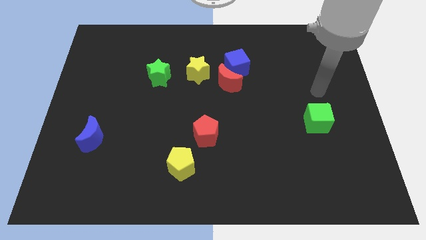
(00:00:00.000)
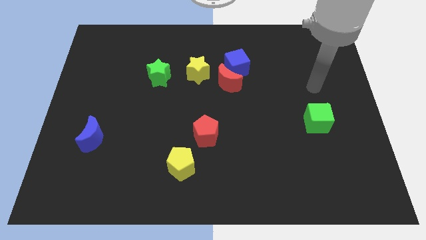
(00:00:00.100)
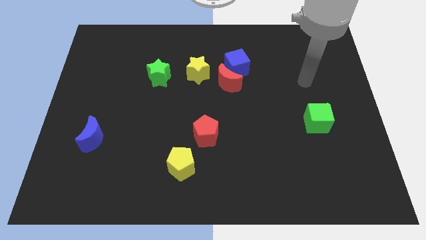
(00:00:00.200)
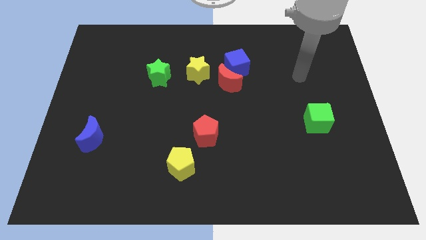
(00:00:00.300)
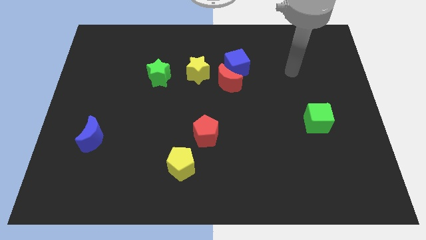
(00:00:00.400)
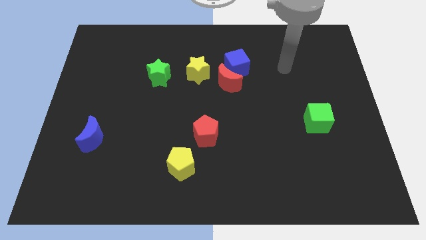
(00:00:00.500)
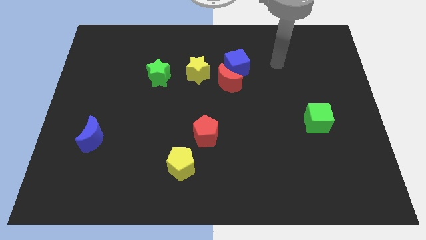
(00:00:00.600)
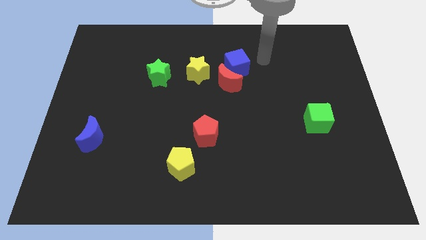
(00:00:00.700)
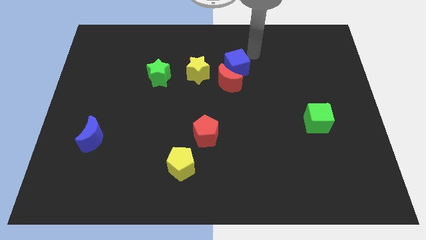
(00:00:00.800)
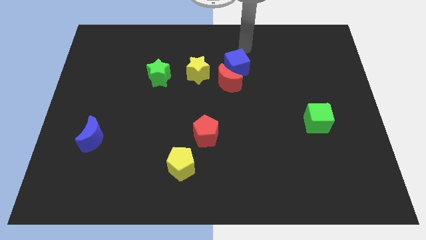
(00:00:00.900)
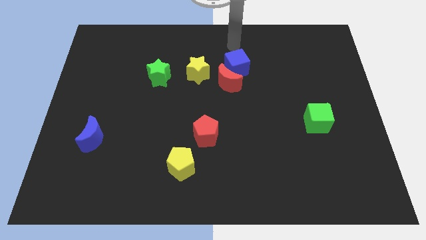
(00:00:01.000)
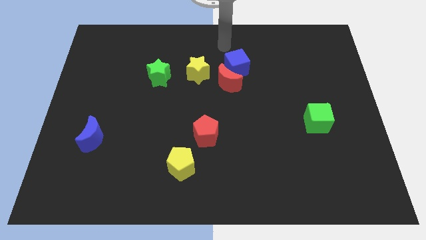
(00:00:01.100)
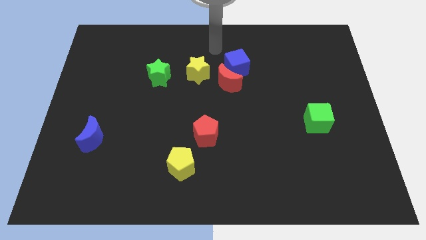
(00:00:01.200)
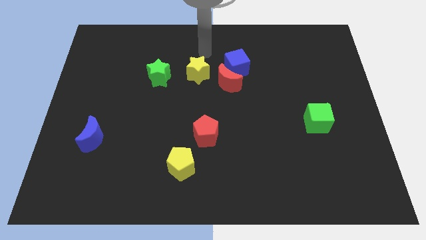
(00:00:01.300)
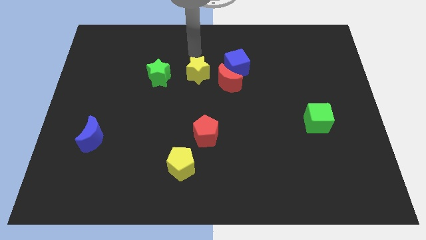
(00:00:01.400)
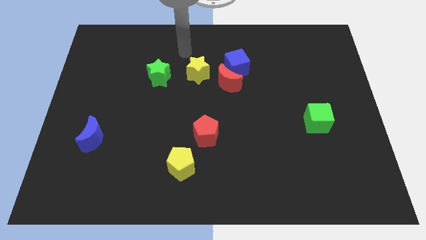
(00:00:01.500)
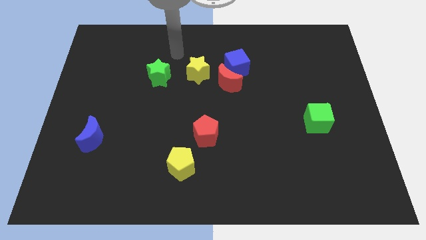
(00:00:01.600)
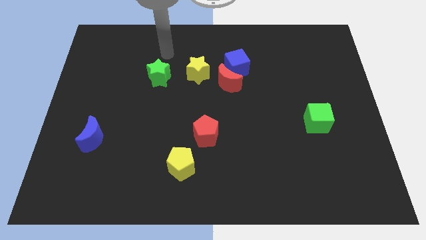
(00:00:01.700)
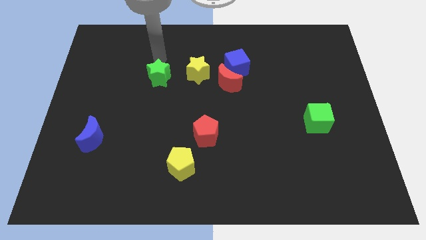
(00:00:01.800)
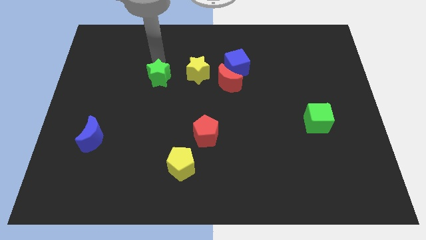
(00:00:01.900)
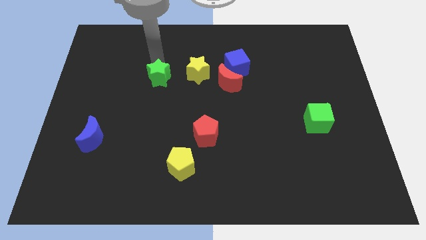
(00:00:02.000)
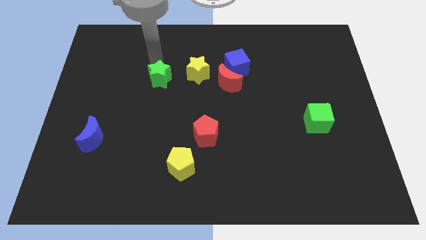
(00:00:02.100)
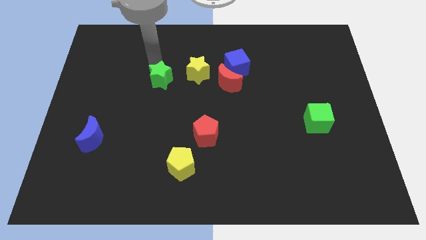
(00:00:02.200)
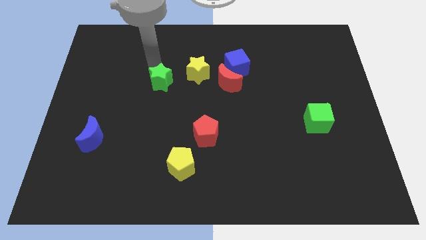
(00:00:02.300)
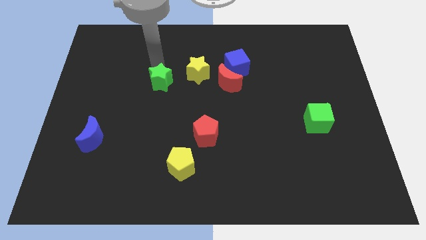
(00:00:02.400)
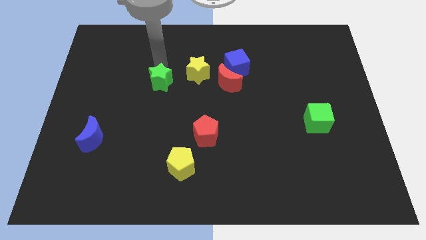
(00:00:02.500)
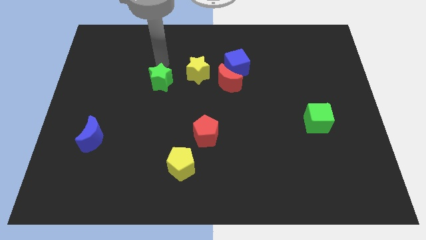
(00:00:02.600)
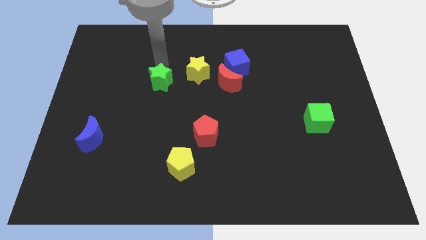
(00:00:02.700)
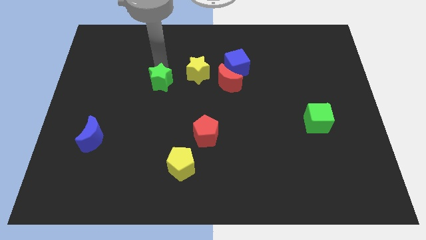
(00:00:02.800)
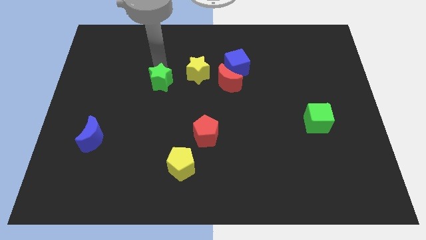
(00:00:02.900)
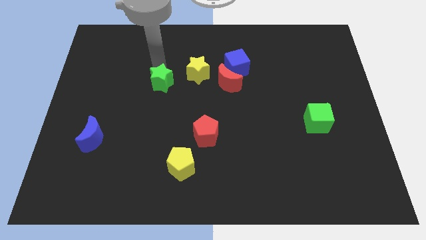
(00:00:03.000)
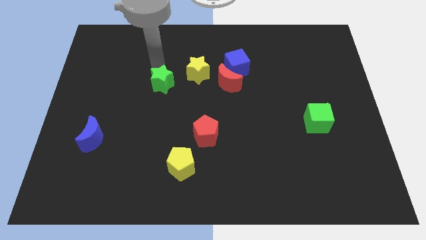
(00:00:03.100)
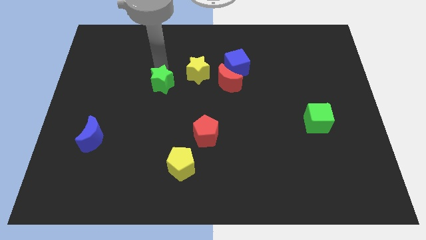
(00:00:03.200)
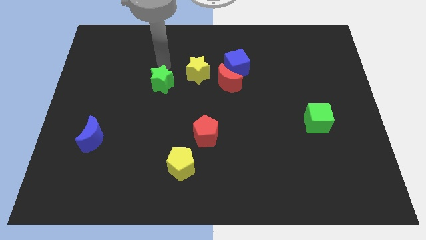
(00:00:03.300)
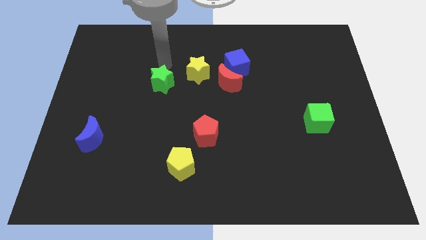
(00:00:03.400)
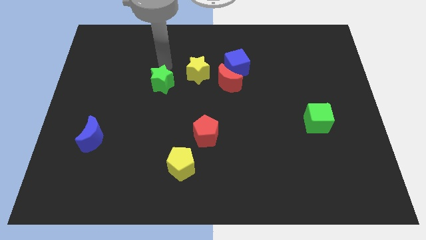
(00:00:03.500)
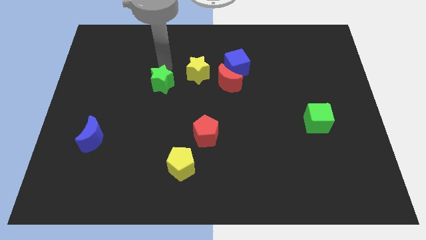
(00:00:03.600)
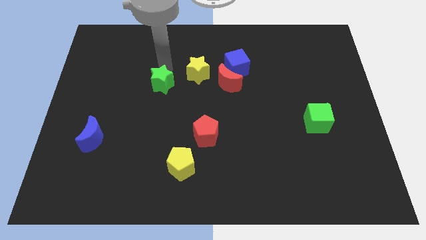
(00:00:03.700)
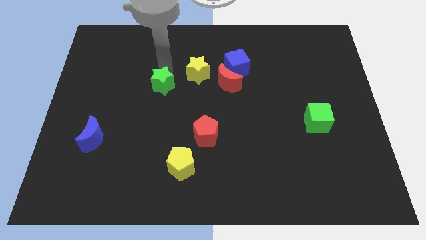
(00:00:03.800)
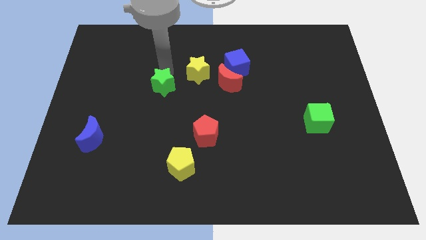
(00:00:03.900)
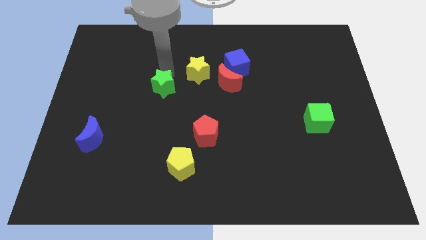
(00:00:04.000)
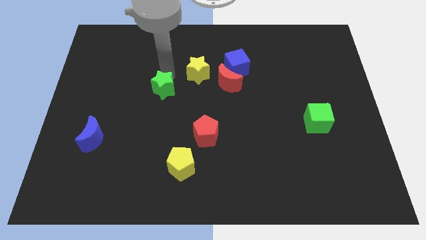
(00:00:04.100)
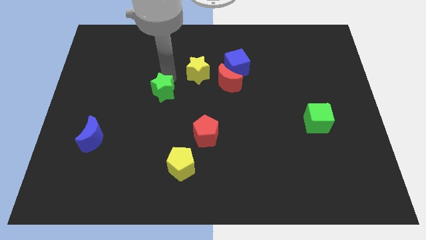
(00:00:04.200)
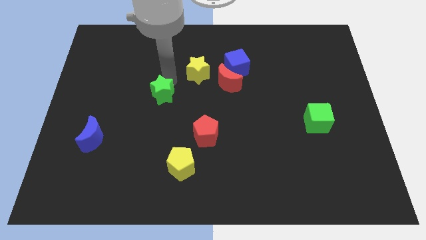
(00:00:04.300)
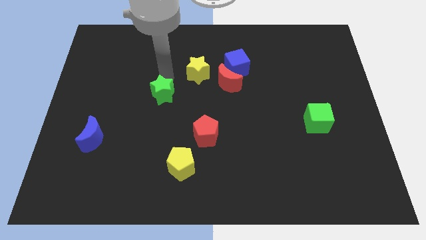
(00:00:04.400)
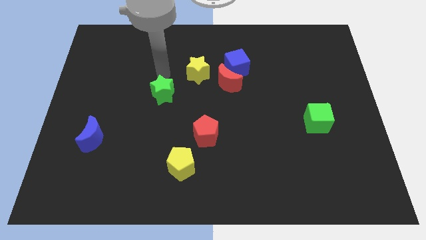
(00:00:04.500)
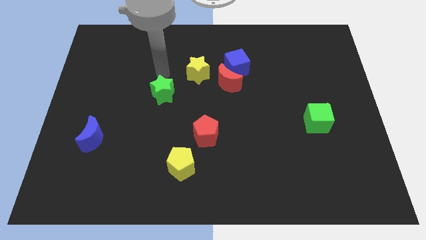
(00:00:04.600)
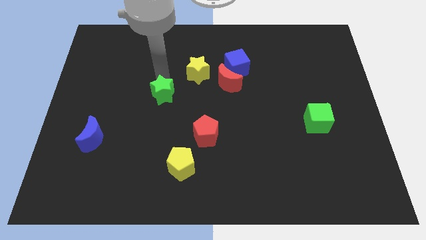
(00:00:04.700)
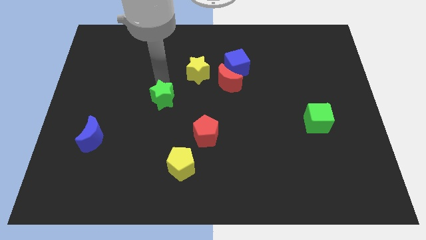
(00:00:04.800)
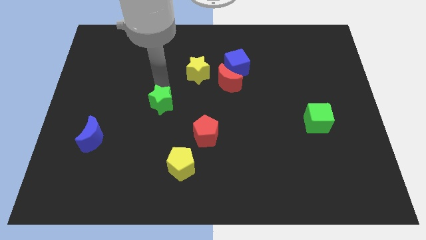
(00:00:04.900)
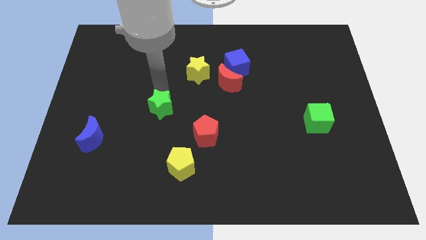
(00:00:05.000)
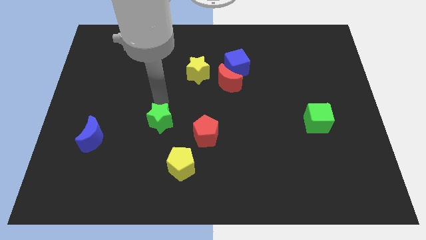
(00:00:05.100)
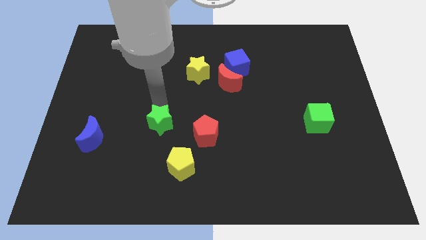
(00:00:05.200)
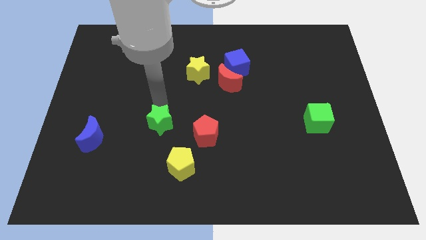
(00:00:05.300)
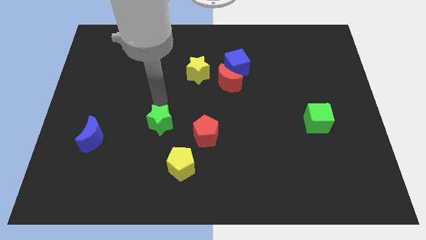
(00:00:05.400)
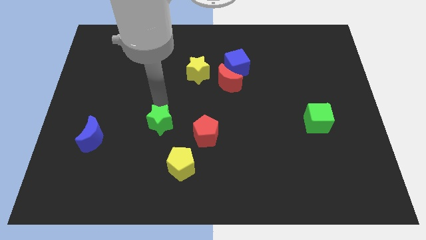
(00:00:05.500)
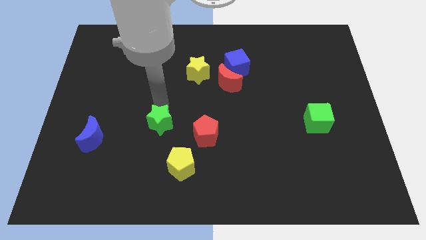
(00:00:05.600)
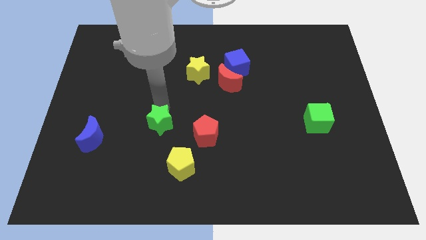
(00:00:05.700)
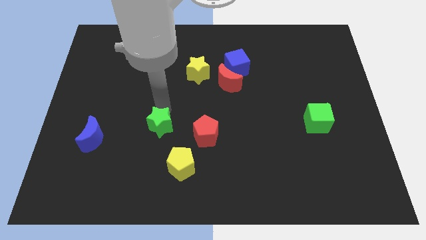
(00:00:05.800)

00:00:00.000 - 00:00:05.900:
put the green star diagonally up and to the left of the yellow pentagon
